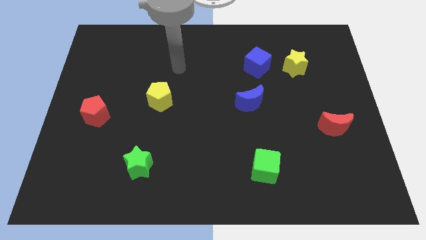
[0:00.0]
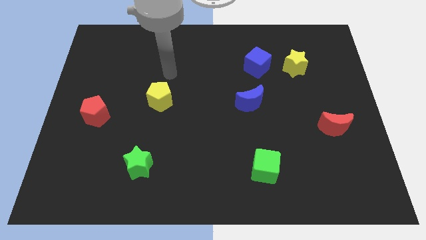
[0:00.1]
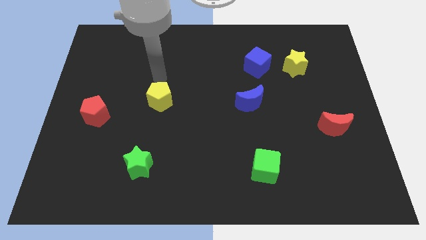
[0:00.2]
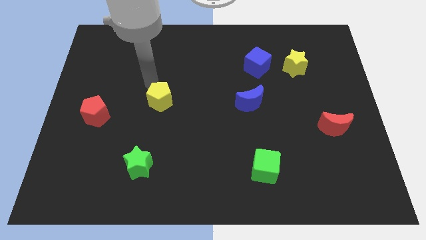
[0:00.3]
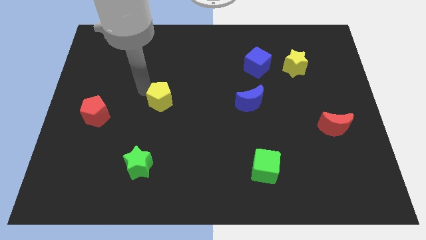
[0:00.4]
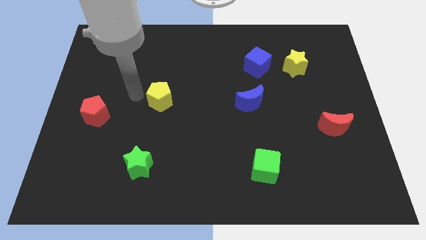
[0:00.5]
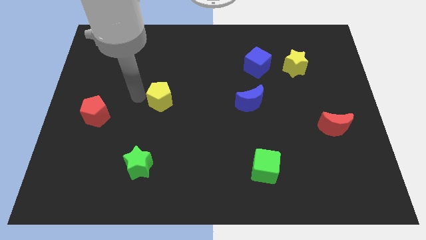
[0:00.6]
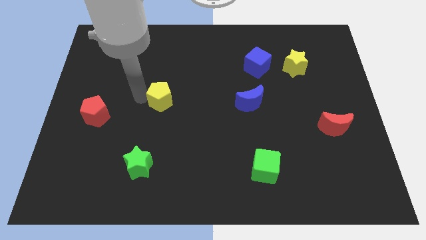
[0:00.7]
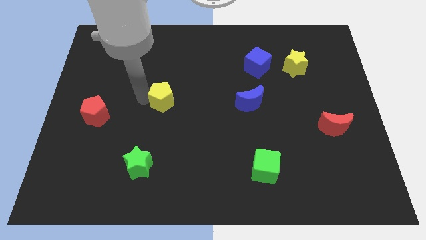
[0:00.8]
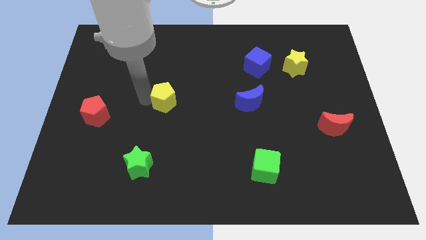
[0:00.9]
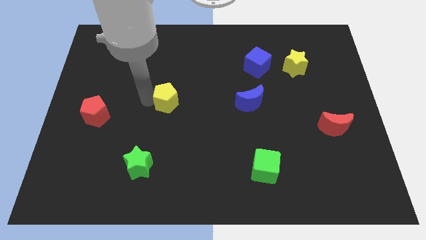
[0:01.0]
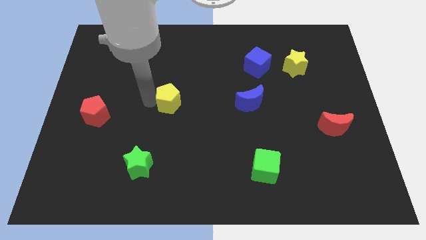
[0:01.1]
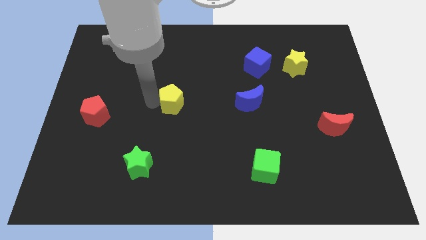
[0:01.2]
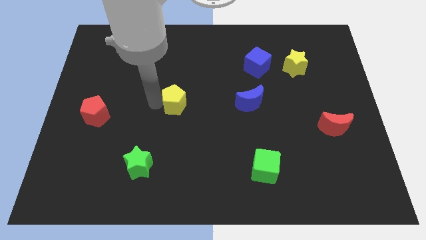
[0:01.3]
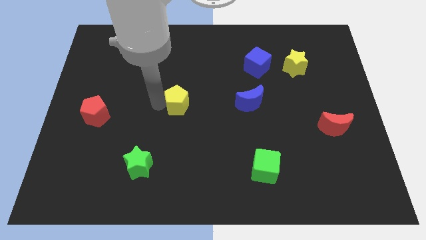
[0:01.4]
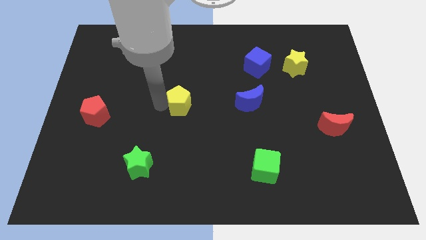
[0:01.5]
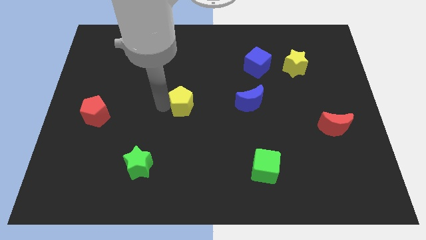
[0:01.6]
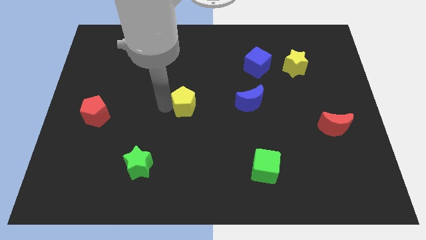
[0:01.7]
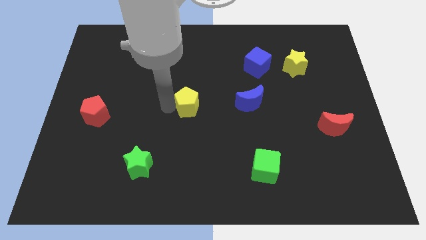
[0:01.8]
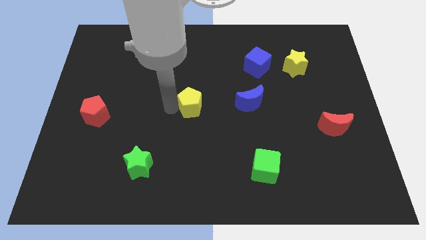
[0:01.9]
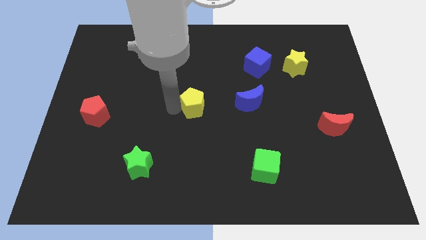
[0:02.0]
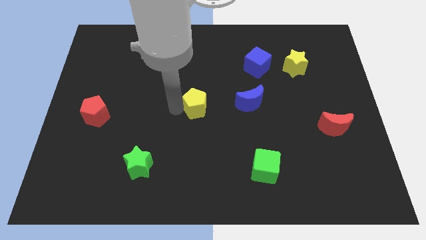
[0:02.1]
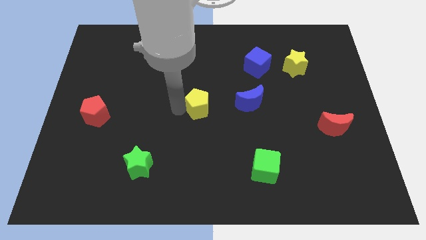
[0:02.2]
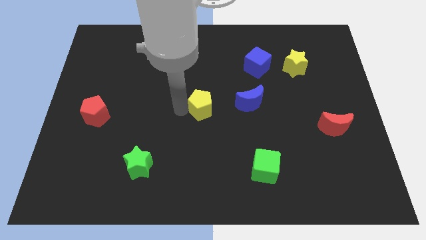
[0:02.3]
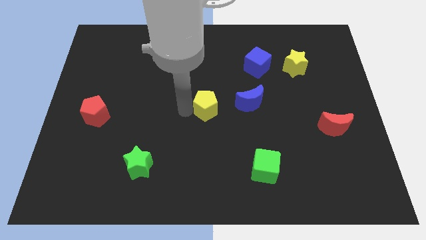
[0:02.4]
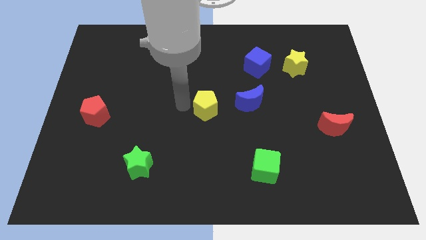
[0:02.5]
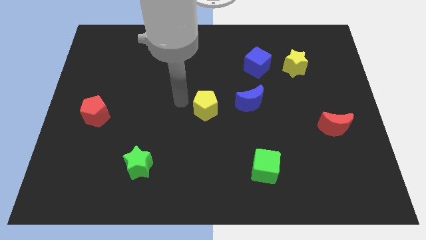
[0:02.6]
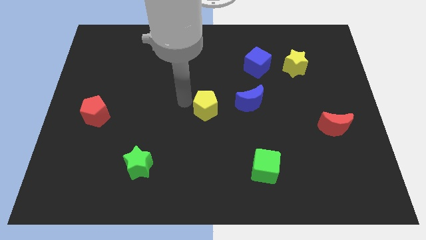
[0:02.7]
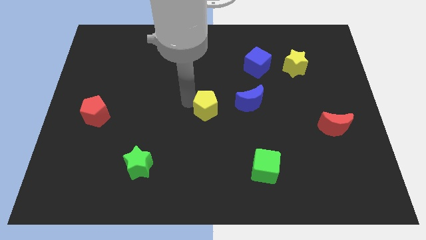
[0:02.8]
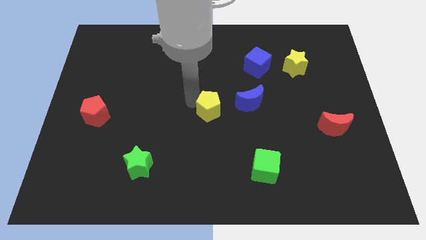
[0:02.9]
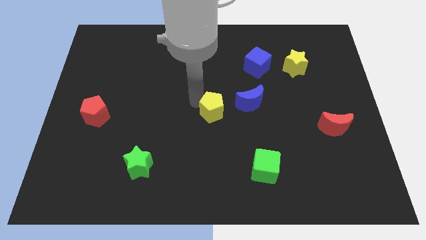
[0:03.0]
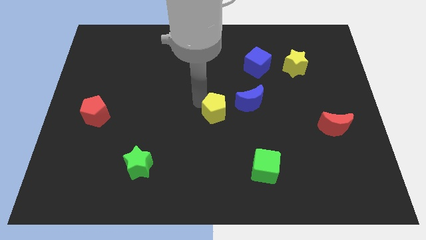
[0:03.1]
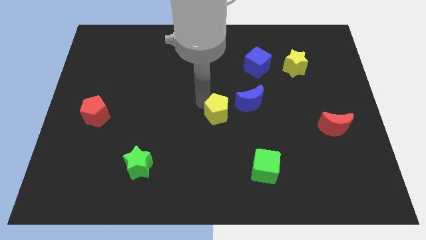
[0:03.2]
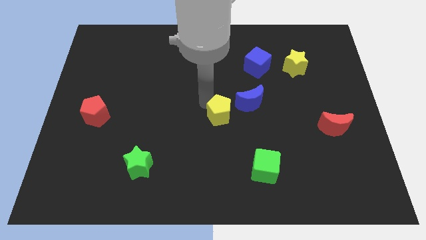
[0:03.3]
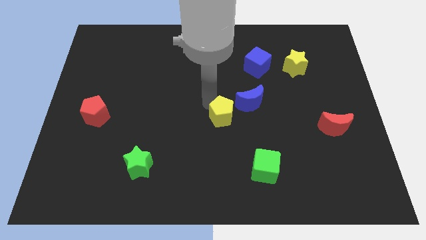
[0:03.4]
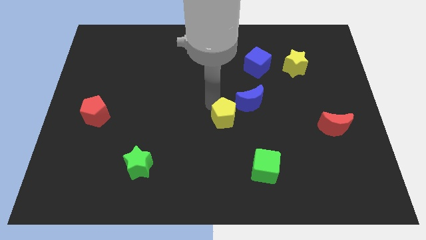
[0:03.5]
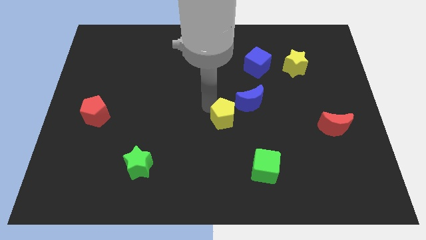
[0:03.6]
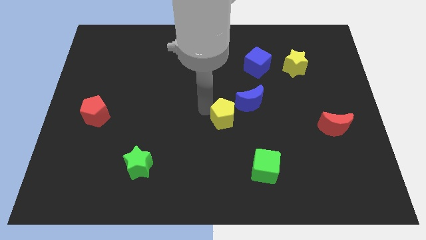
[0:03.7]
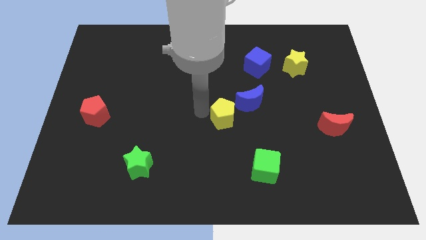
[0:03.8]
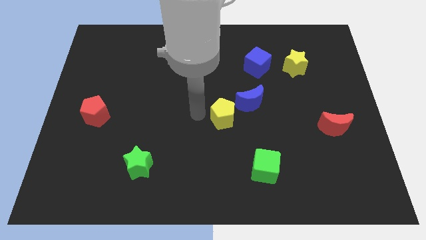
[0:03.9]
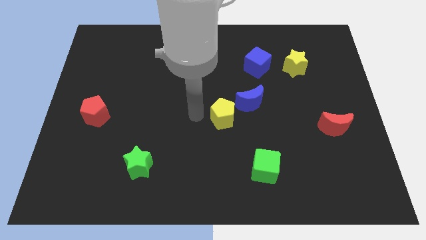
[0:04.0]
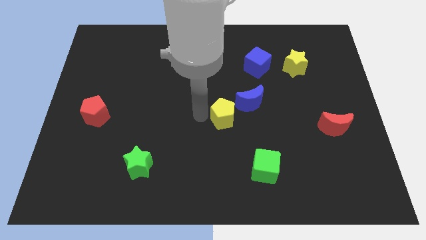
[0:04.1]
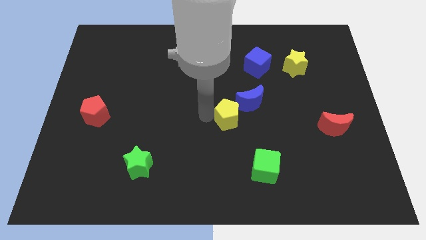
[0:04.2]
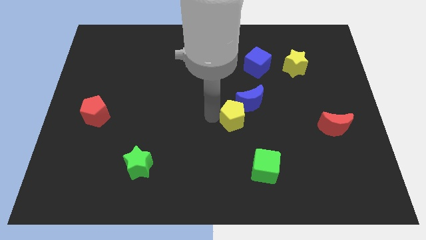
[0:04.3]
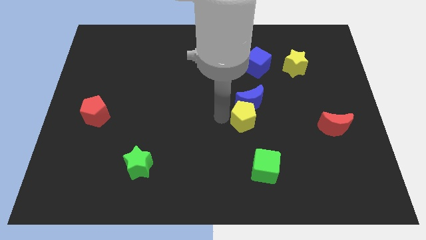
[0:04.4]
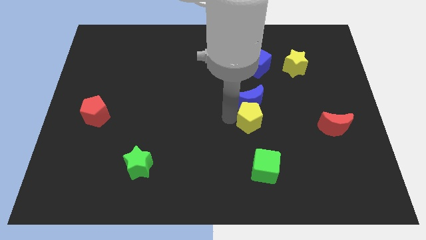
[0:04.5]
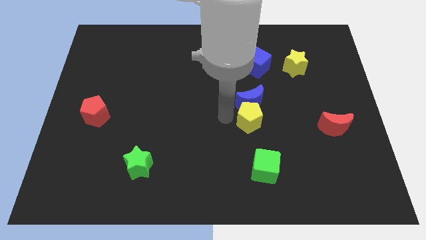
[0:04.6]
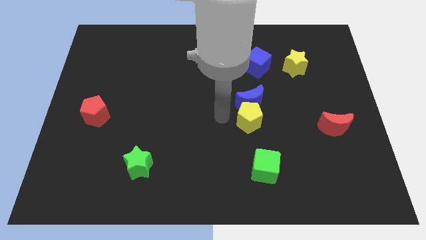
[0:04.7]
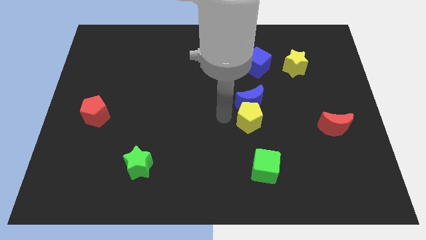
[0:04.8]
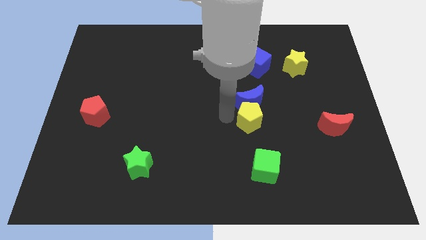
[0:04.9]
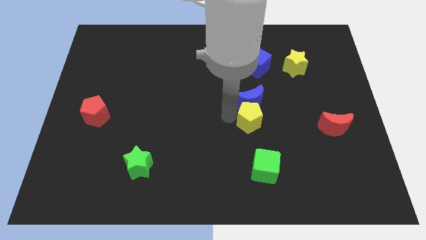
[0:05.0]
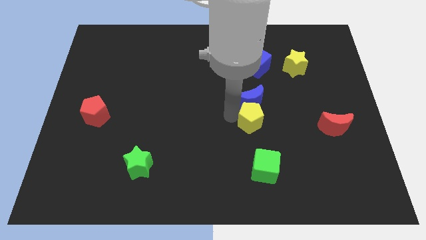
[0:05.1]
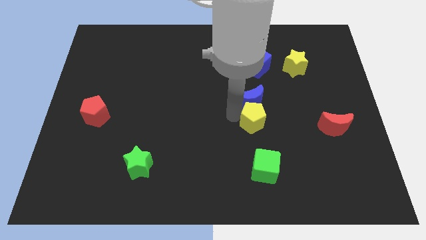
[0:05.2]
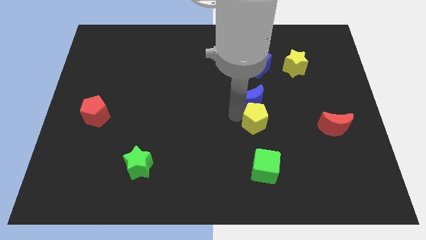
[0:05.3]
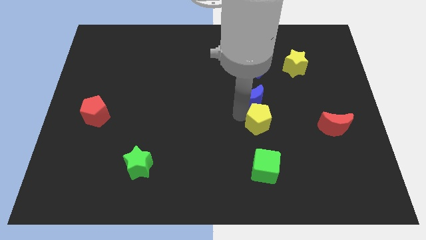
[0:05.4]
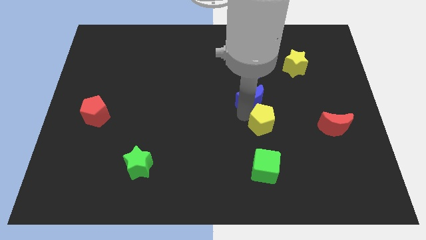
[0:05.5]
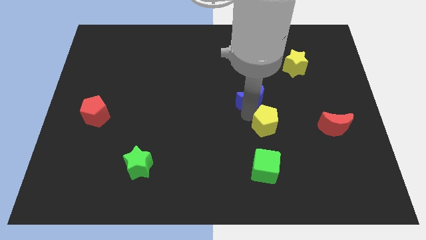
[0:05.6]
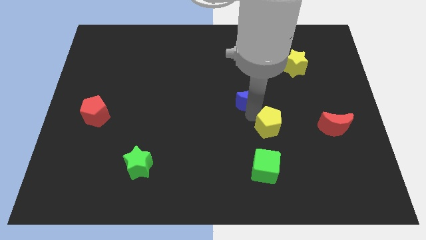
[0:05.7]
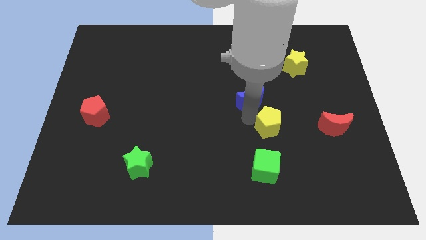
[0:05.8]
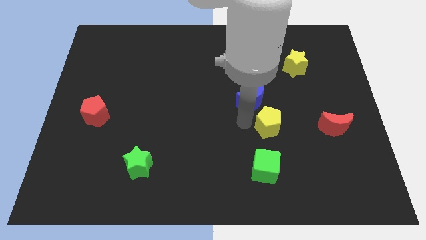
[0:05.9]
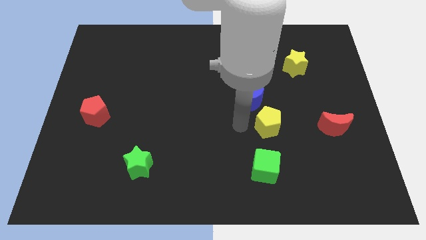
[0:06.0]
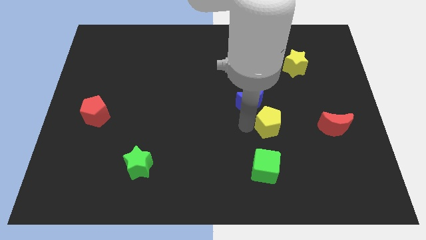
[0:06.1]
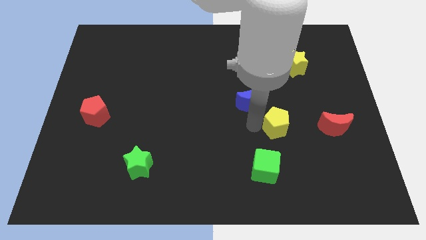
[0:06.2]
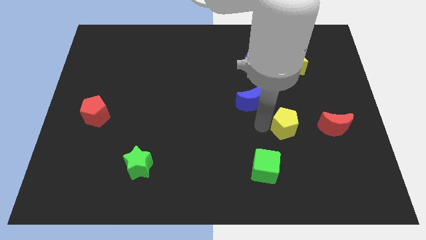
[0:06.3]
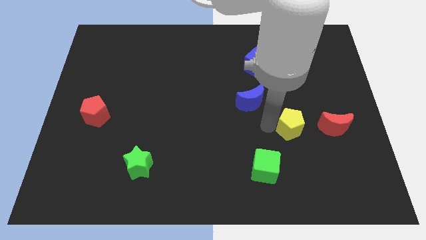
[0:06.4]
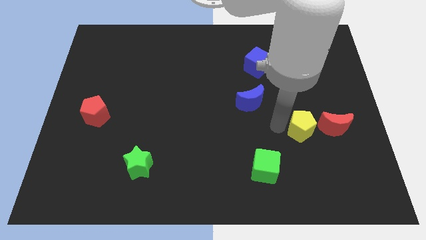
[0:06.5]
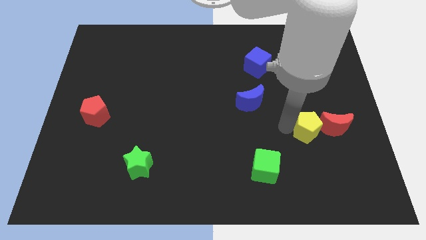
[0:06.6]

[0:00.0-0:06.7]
slide the yellow pentagon close to the red moon

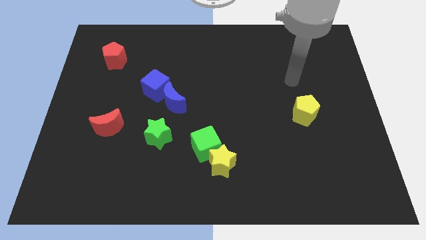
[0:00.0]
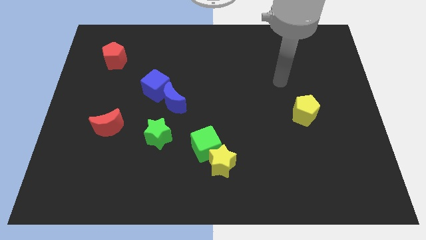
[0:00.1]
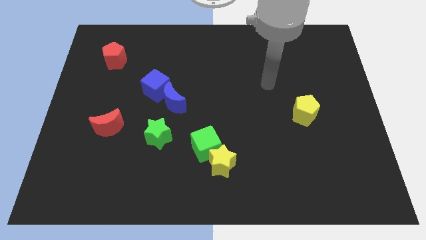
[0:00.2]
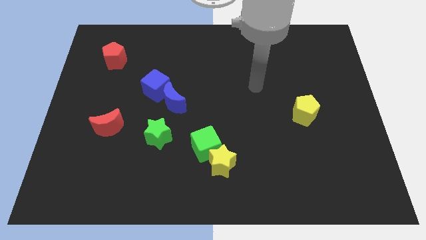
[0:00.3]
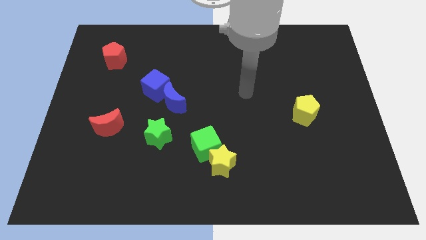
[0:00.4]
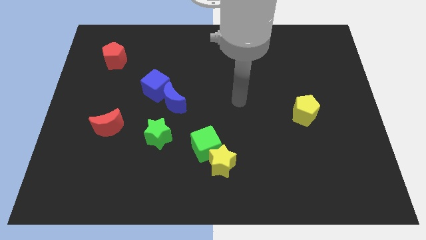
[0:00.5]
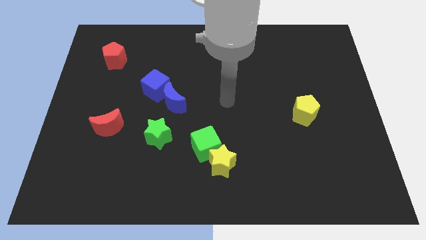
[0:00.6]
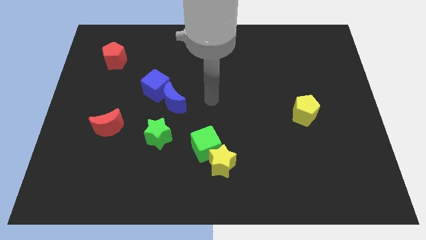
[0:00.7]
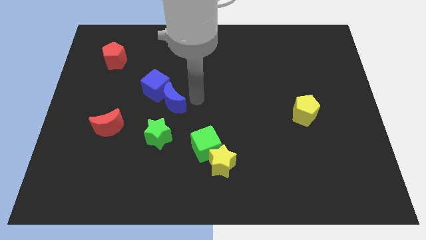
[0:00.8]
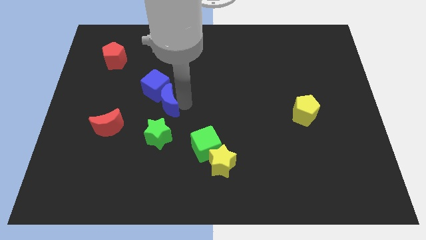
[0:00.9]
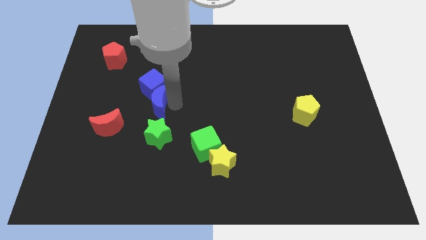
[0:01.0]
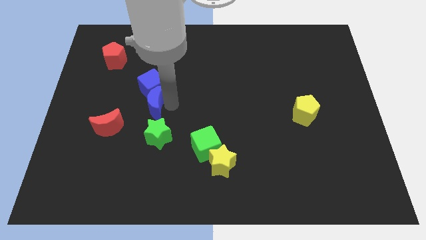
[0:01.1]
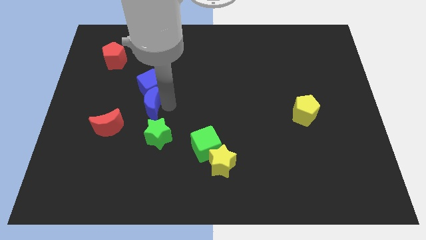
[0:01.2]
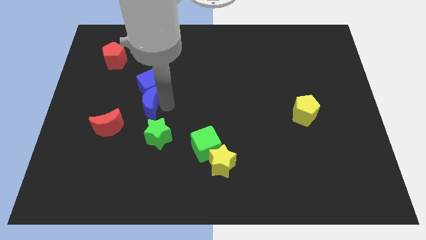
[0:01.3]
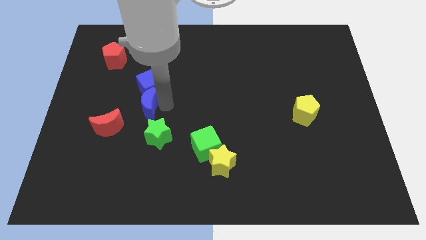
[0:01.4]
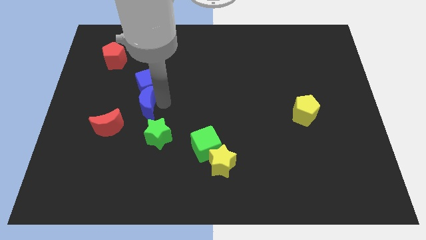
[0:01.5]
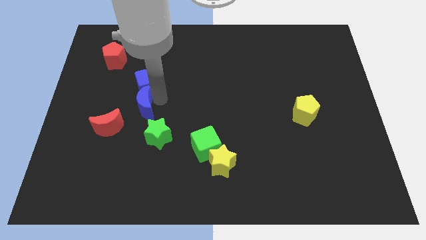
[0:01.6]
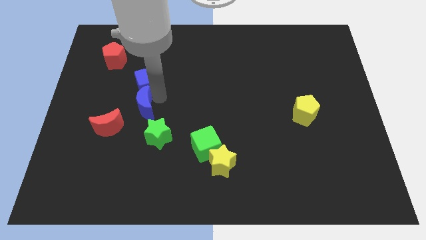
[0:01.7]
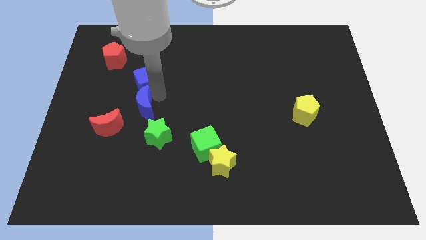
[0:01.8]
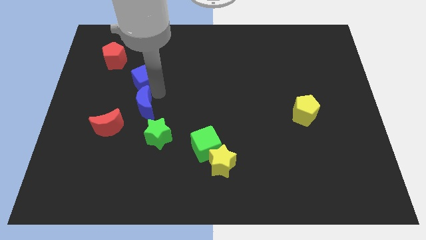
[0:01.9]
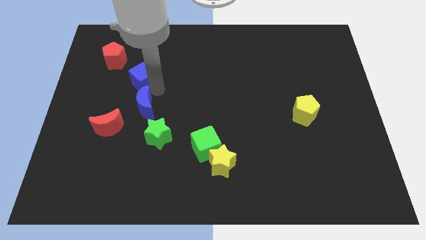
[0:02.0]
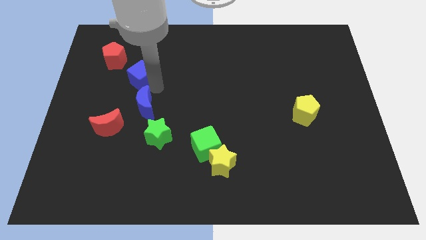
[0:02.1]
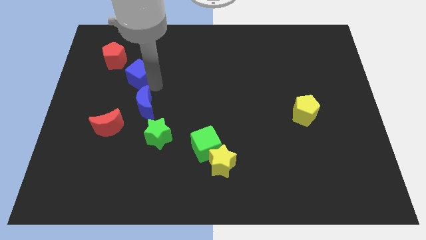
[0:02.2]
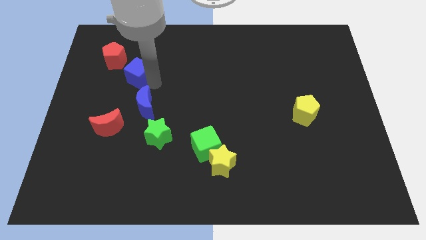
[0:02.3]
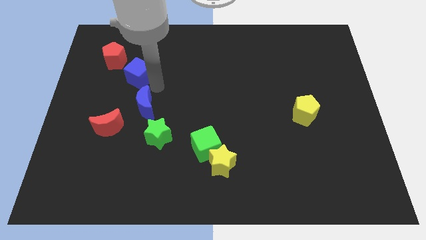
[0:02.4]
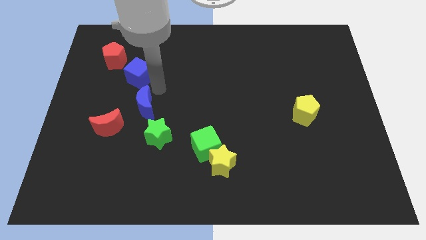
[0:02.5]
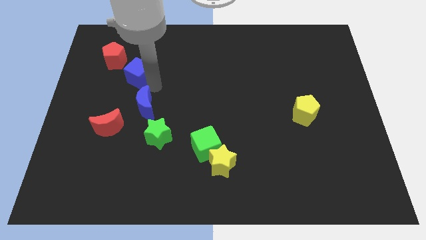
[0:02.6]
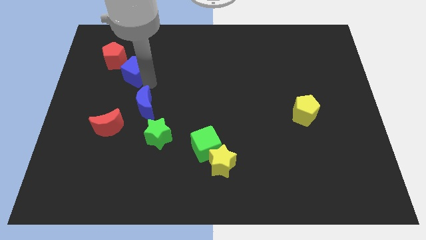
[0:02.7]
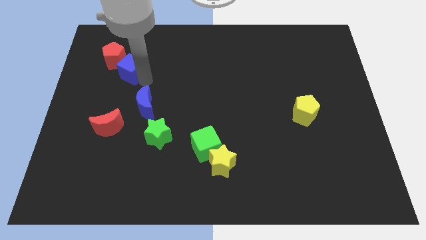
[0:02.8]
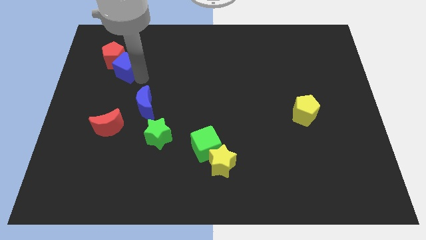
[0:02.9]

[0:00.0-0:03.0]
slide the blue cube close to the red pentagon
